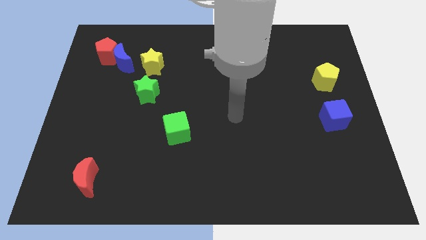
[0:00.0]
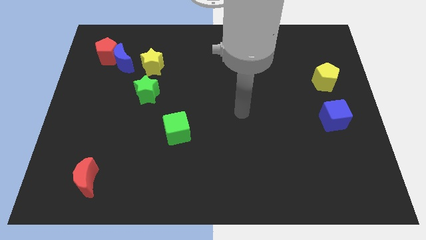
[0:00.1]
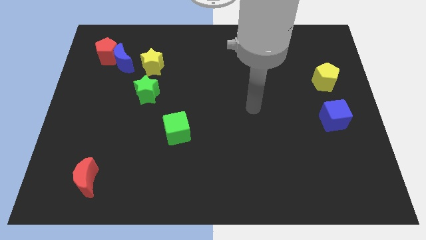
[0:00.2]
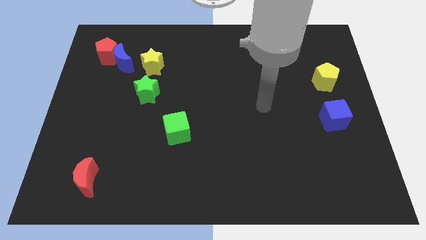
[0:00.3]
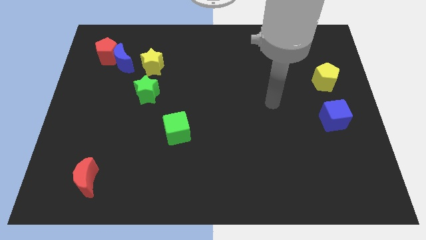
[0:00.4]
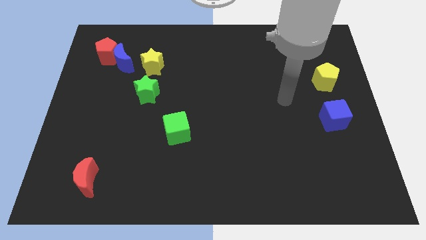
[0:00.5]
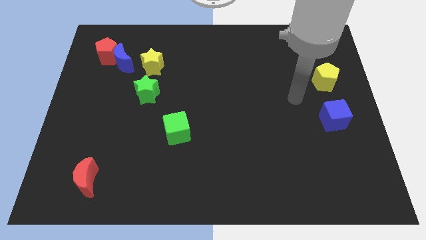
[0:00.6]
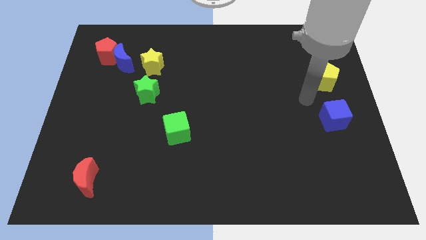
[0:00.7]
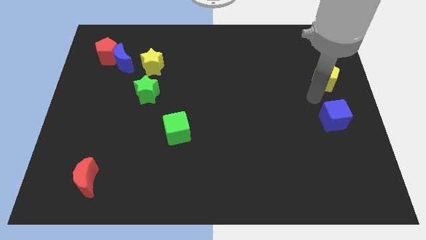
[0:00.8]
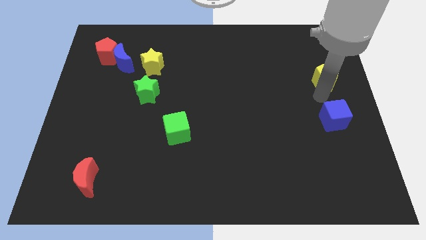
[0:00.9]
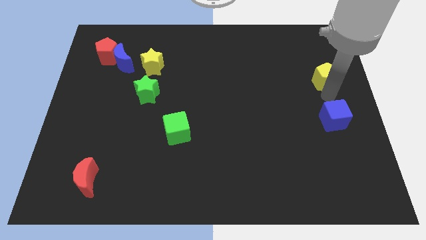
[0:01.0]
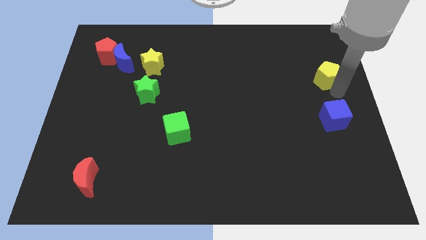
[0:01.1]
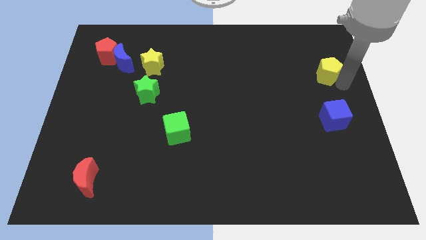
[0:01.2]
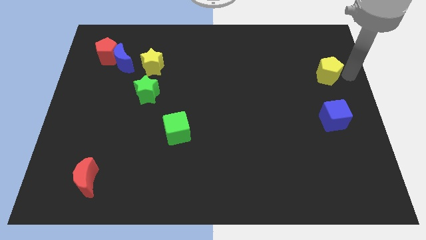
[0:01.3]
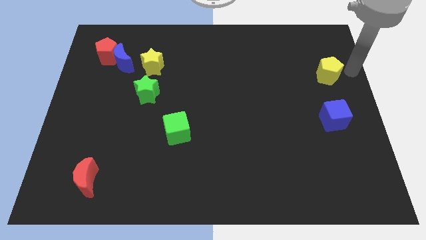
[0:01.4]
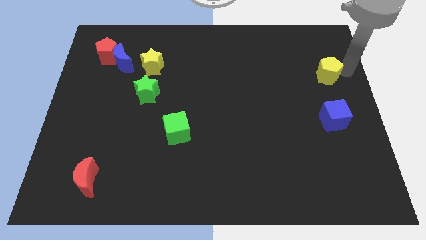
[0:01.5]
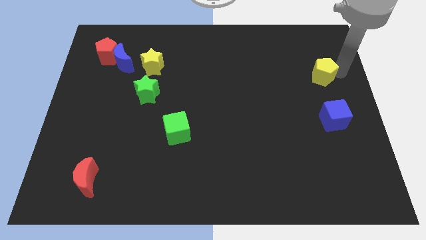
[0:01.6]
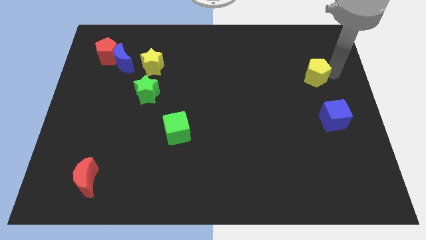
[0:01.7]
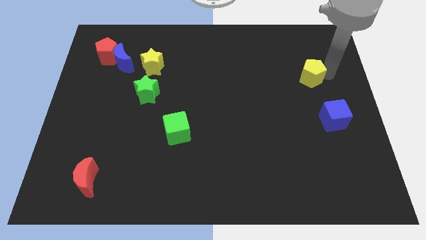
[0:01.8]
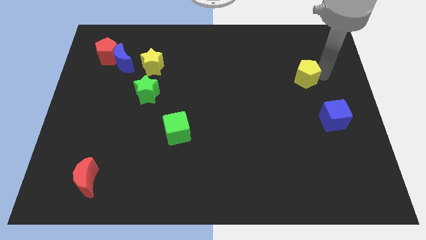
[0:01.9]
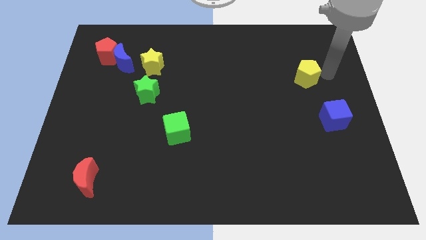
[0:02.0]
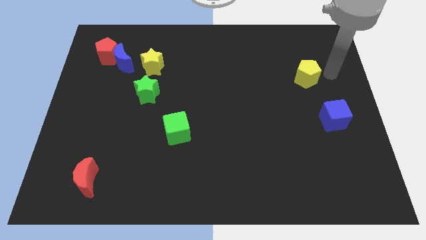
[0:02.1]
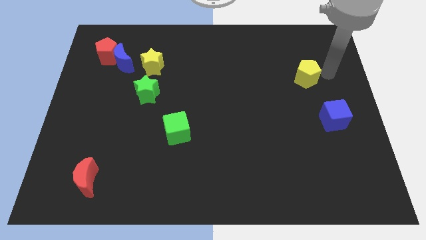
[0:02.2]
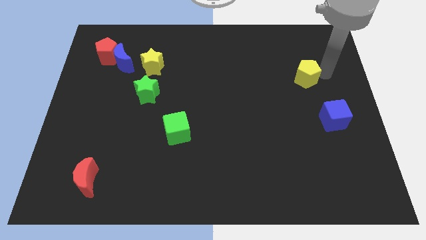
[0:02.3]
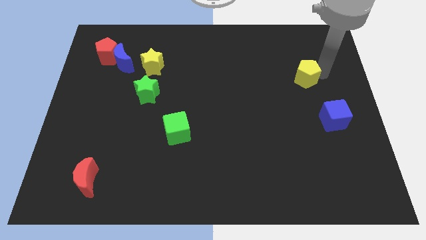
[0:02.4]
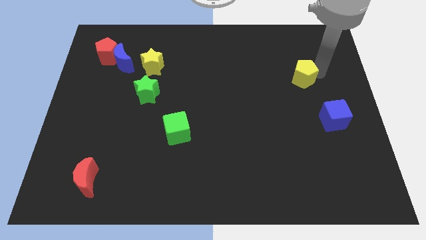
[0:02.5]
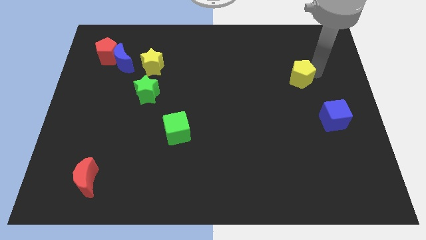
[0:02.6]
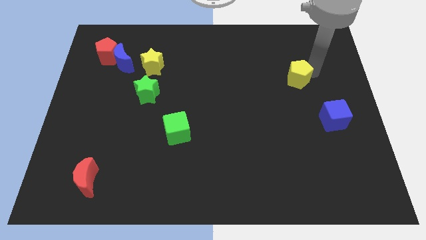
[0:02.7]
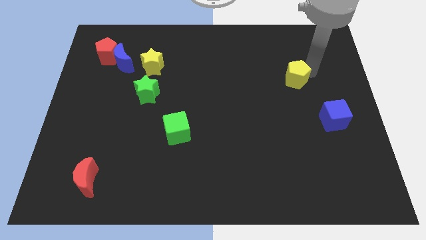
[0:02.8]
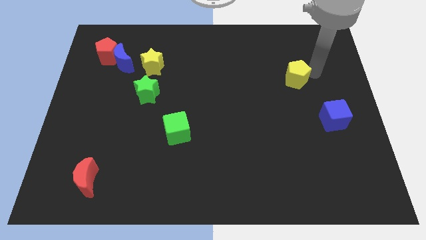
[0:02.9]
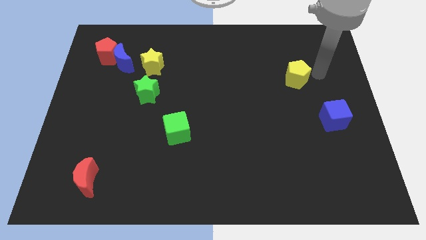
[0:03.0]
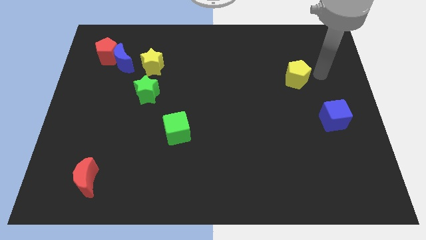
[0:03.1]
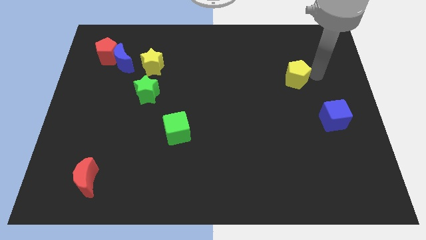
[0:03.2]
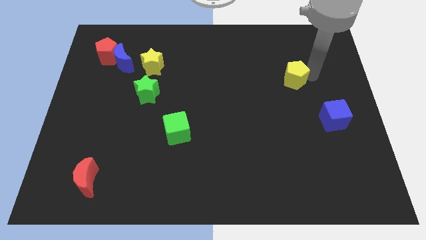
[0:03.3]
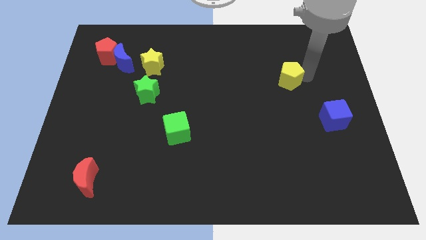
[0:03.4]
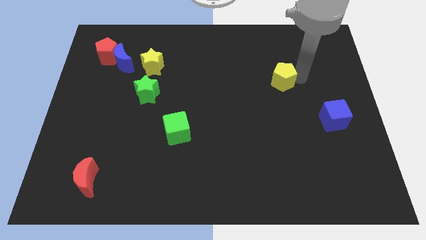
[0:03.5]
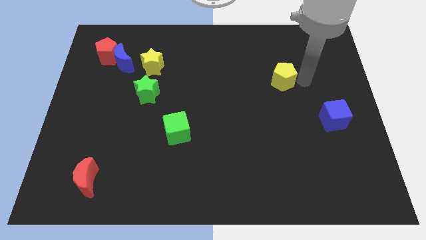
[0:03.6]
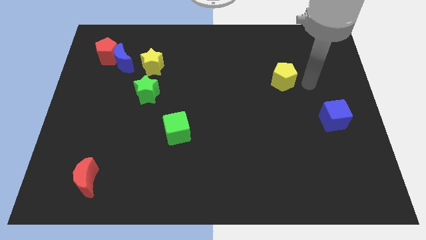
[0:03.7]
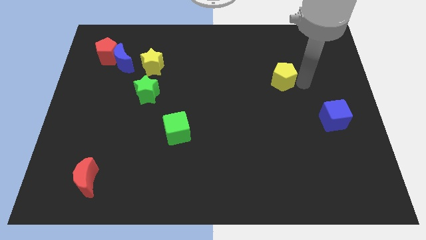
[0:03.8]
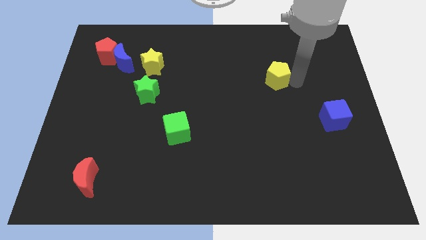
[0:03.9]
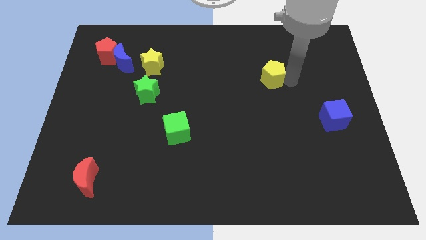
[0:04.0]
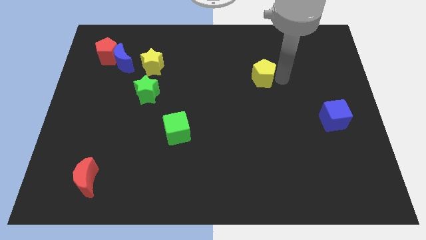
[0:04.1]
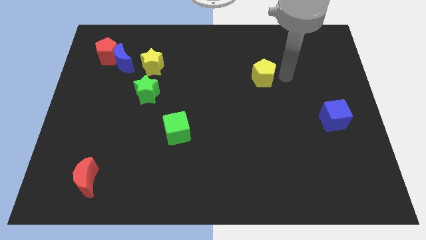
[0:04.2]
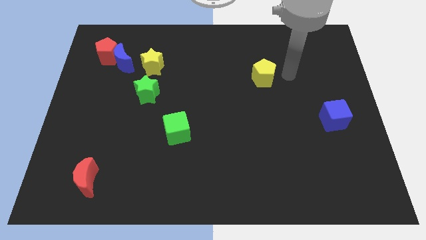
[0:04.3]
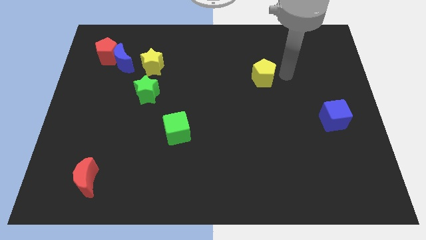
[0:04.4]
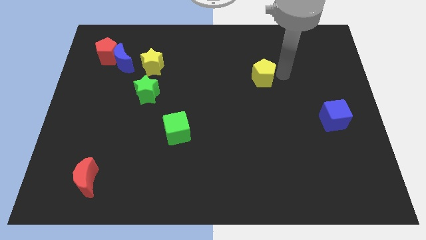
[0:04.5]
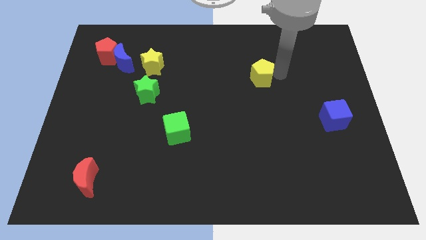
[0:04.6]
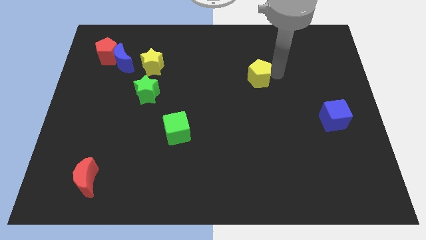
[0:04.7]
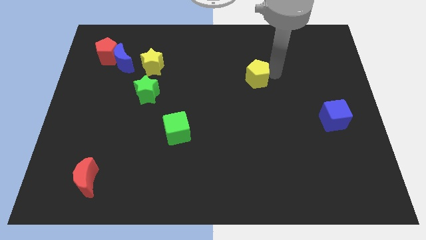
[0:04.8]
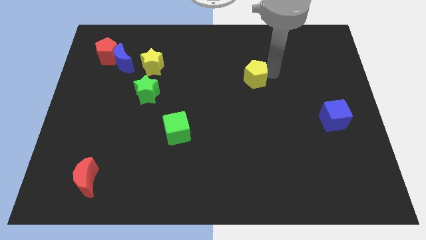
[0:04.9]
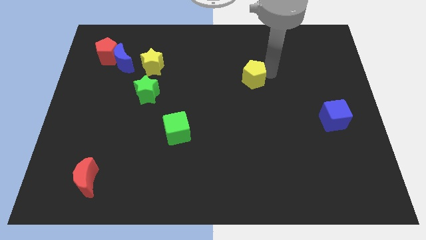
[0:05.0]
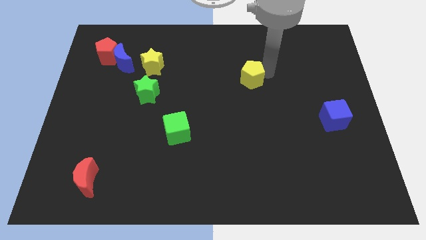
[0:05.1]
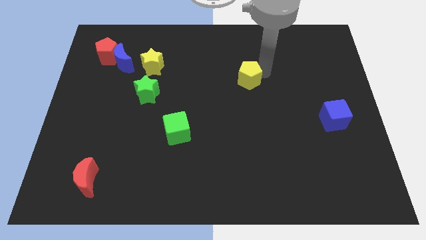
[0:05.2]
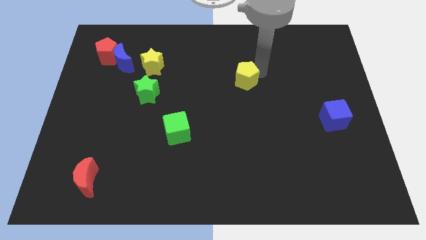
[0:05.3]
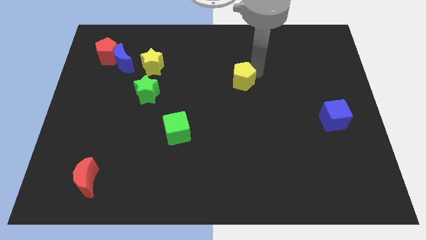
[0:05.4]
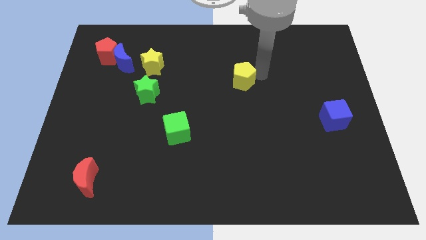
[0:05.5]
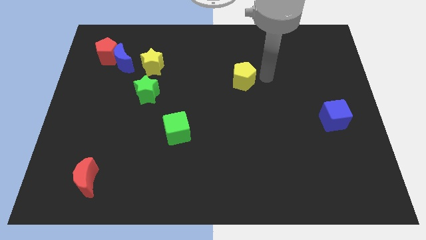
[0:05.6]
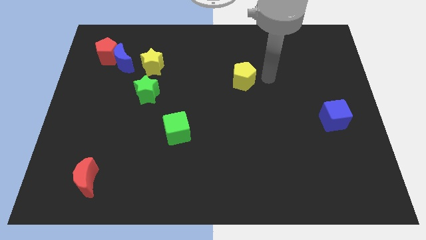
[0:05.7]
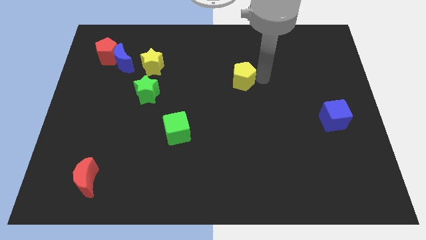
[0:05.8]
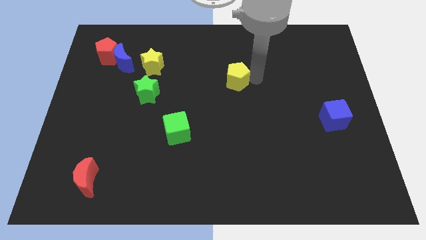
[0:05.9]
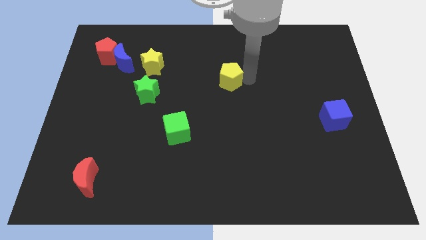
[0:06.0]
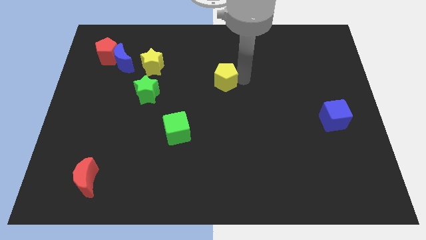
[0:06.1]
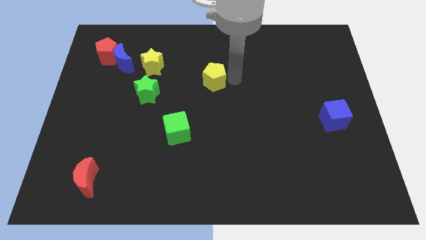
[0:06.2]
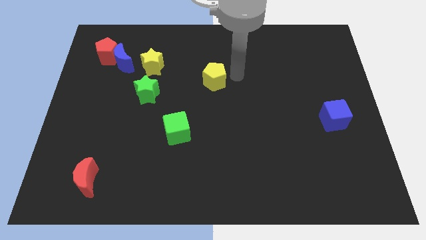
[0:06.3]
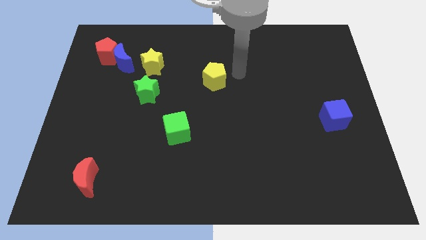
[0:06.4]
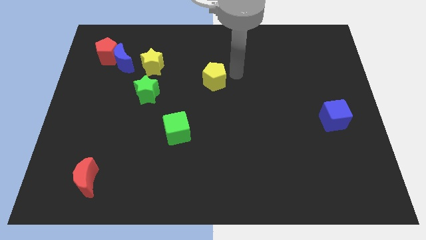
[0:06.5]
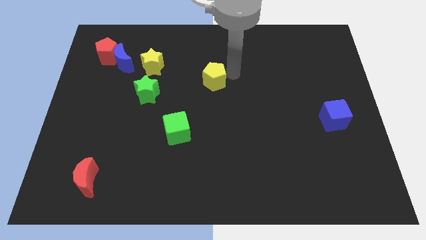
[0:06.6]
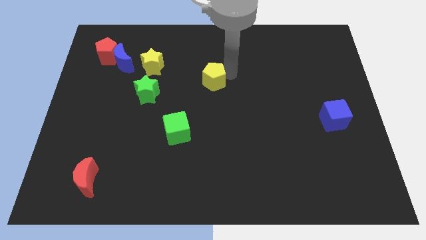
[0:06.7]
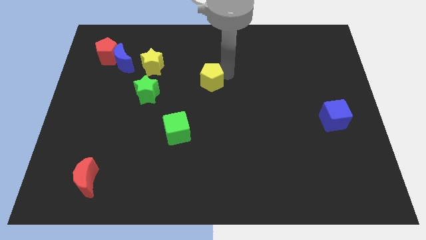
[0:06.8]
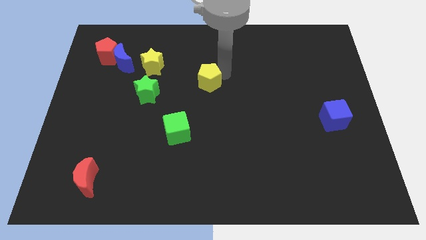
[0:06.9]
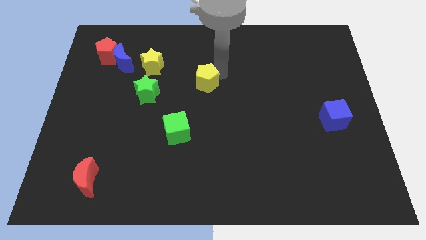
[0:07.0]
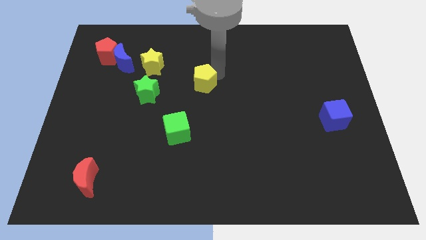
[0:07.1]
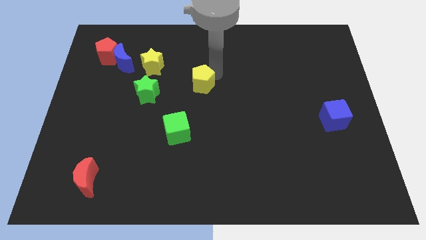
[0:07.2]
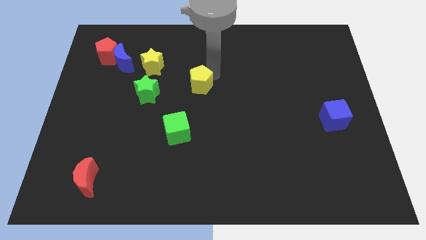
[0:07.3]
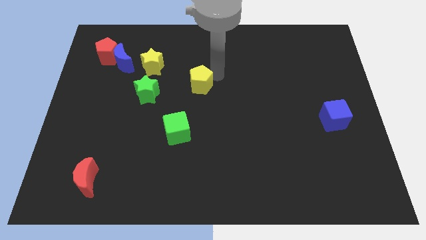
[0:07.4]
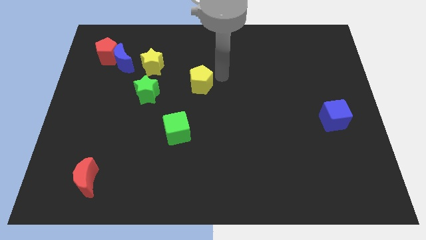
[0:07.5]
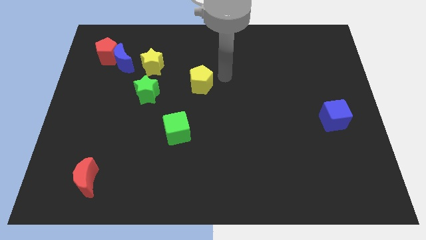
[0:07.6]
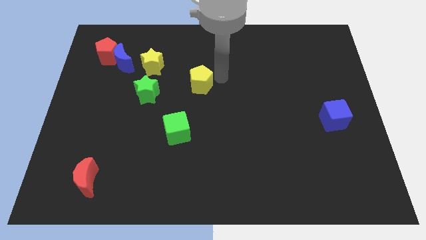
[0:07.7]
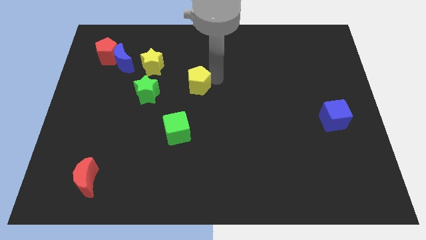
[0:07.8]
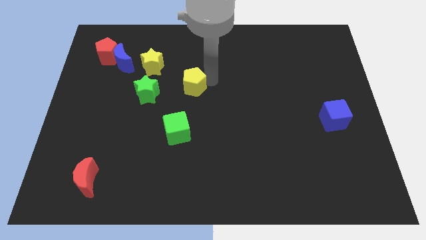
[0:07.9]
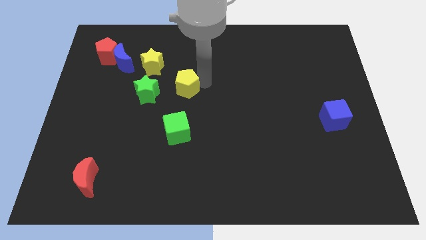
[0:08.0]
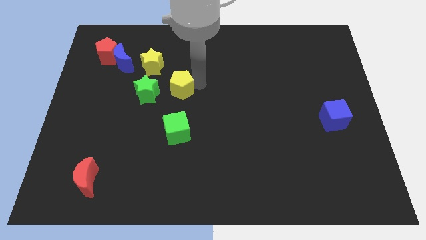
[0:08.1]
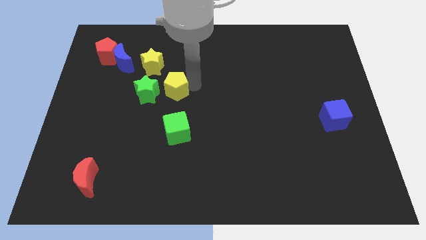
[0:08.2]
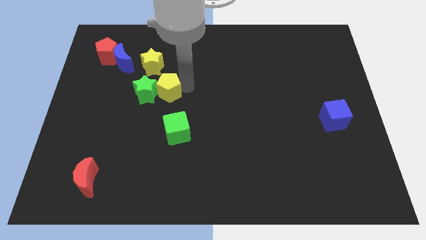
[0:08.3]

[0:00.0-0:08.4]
move the yellow pentagon towards the green star
